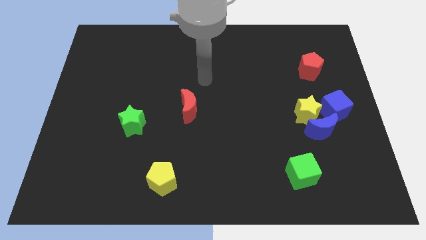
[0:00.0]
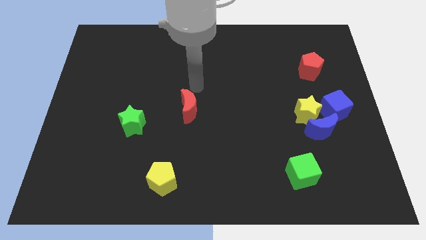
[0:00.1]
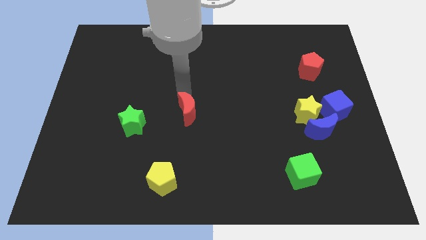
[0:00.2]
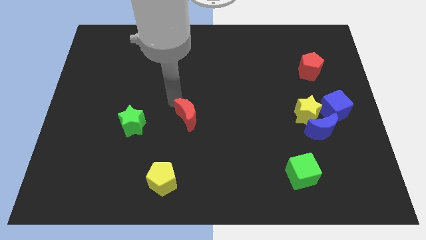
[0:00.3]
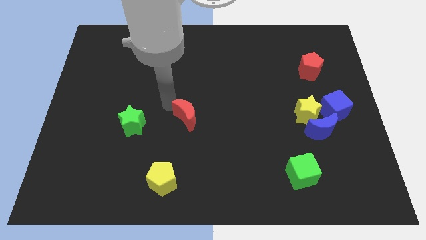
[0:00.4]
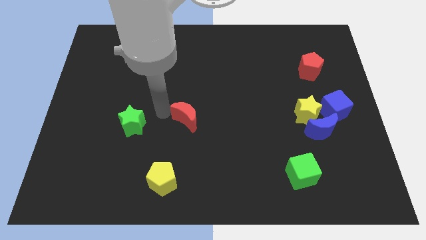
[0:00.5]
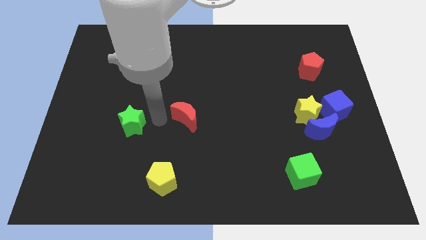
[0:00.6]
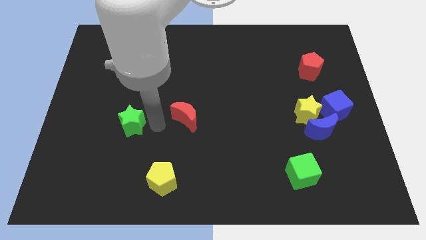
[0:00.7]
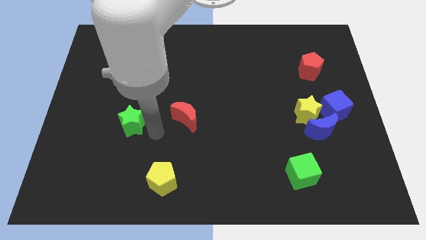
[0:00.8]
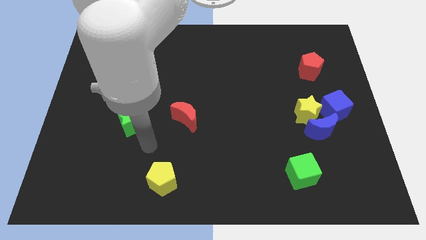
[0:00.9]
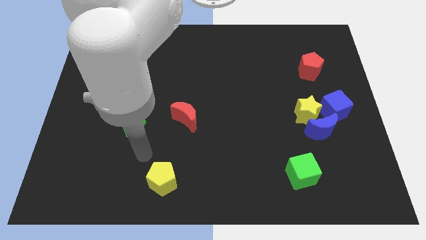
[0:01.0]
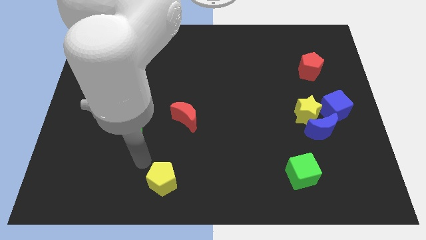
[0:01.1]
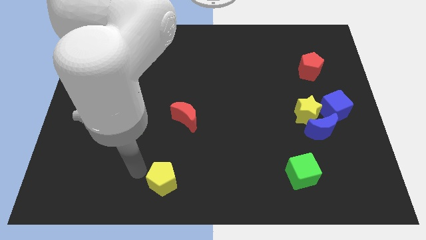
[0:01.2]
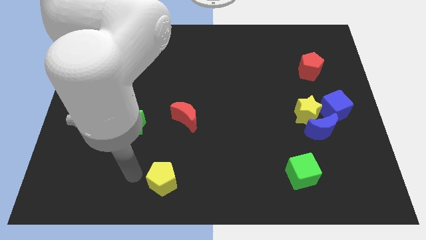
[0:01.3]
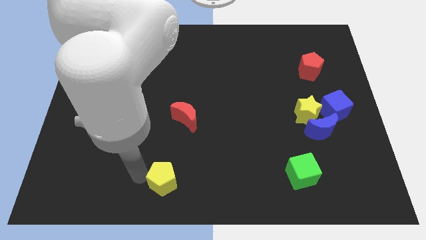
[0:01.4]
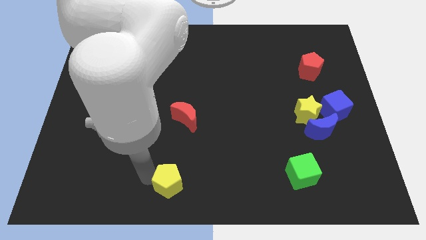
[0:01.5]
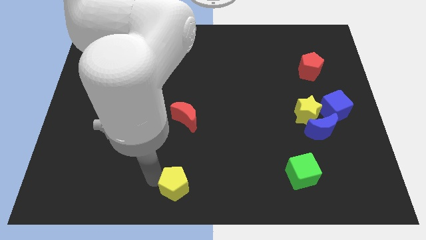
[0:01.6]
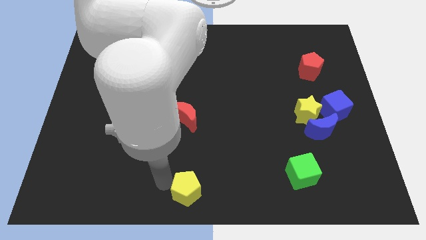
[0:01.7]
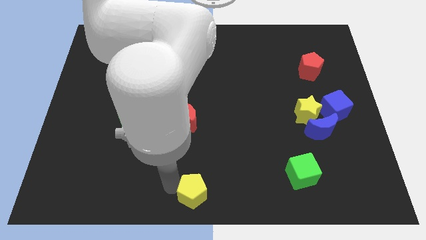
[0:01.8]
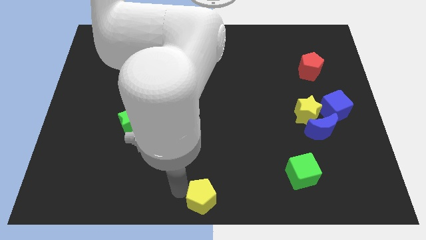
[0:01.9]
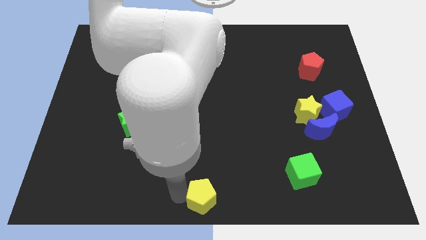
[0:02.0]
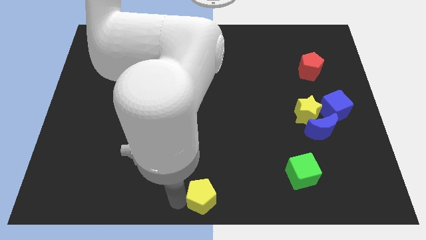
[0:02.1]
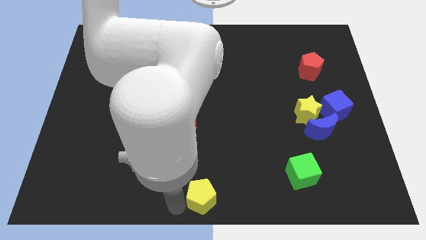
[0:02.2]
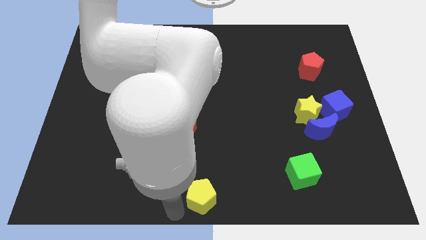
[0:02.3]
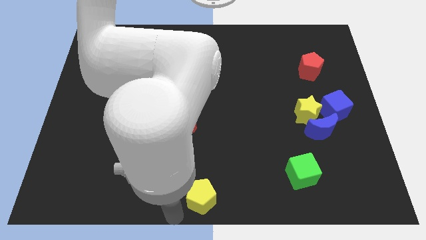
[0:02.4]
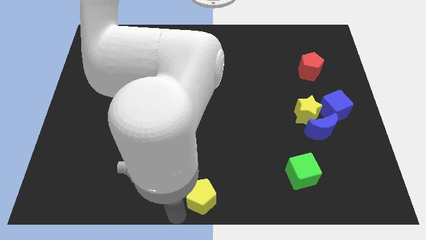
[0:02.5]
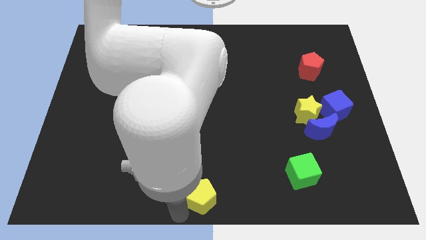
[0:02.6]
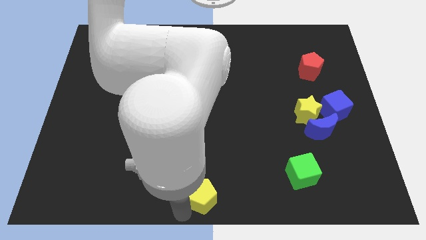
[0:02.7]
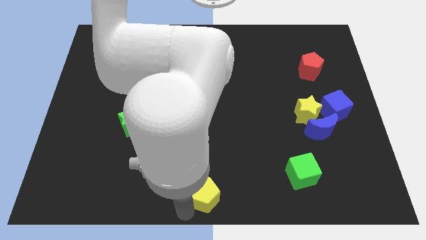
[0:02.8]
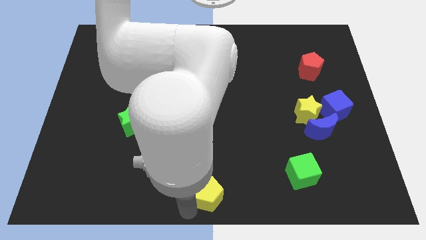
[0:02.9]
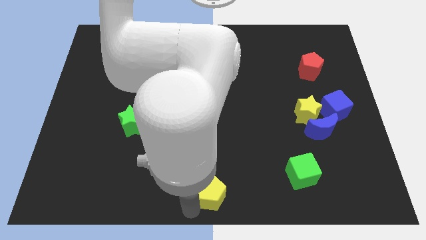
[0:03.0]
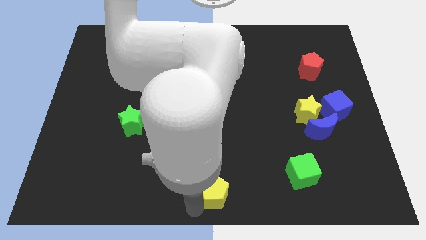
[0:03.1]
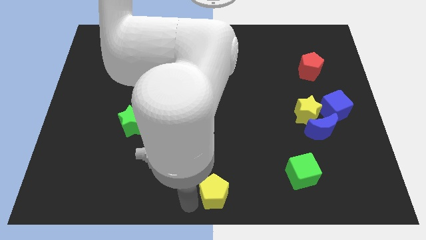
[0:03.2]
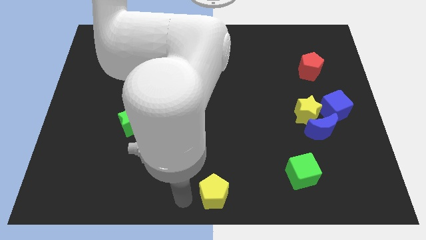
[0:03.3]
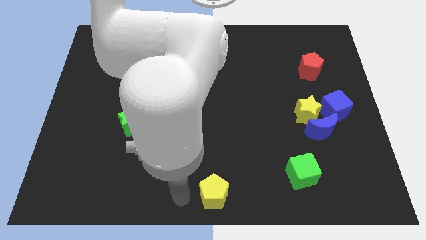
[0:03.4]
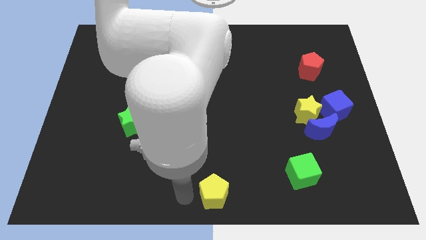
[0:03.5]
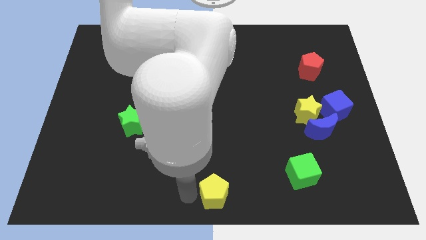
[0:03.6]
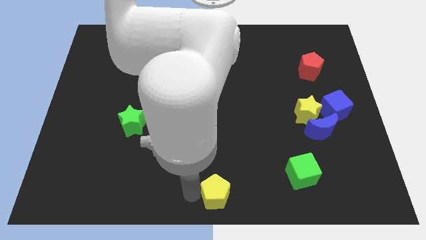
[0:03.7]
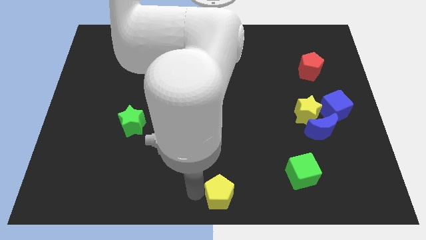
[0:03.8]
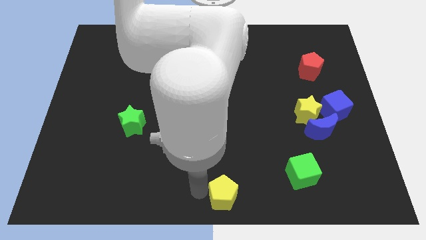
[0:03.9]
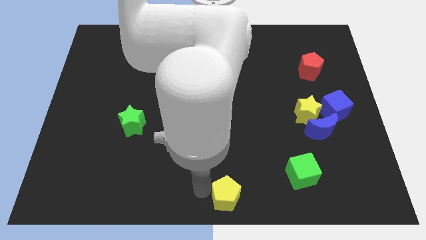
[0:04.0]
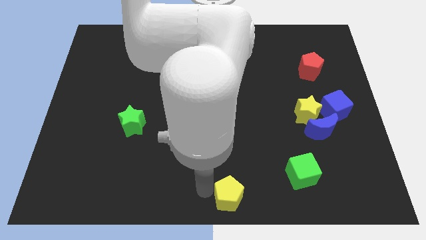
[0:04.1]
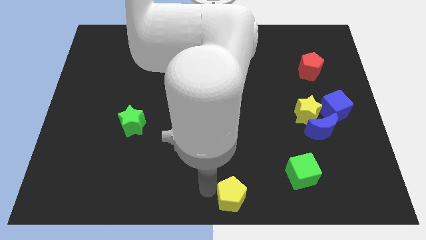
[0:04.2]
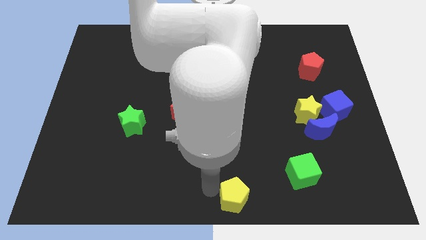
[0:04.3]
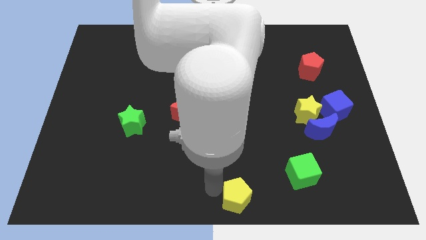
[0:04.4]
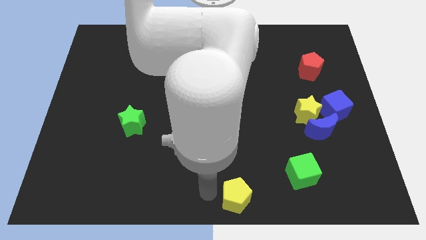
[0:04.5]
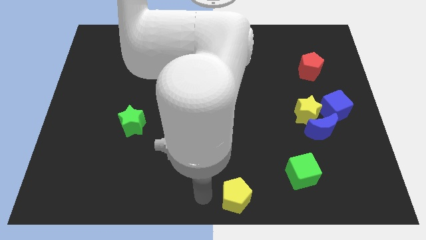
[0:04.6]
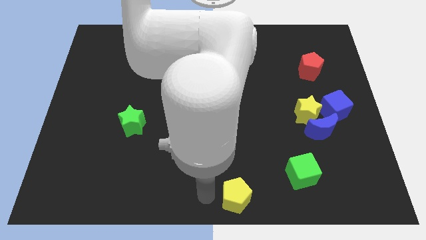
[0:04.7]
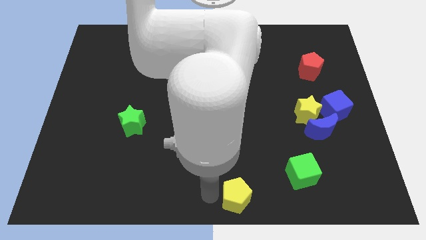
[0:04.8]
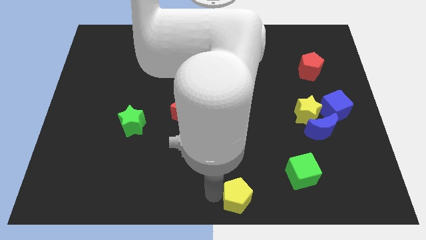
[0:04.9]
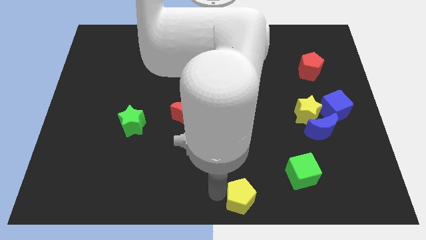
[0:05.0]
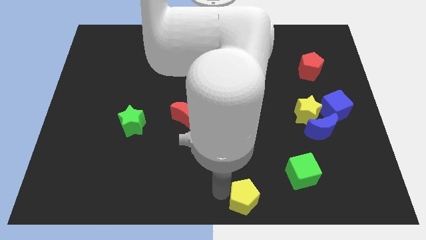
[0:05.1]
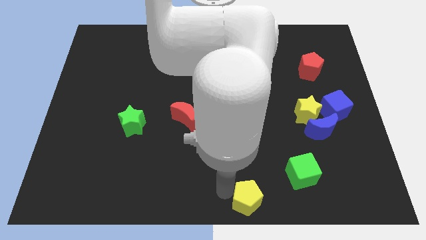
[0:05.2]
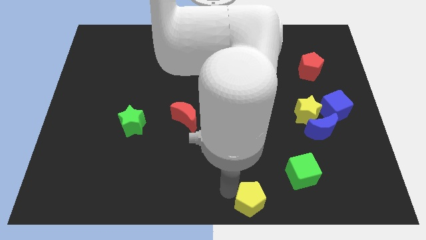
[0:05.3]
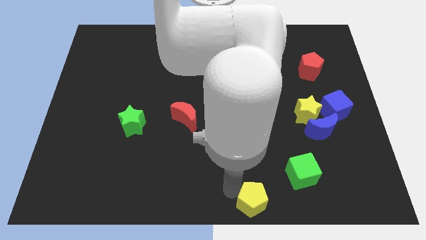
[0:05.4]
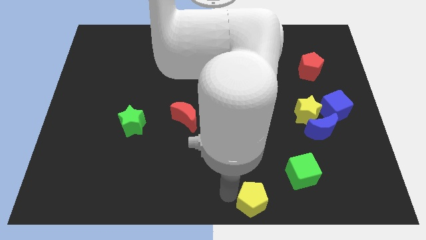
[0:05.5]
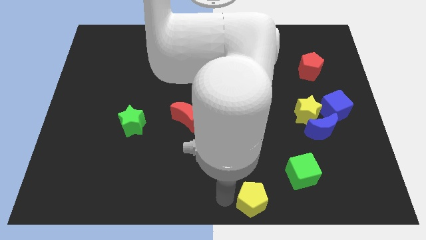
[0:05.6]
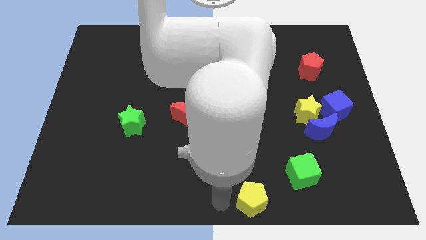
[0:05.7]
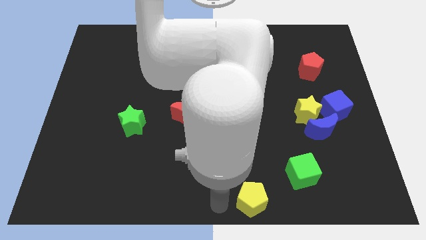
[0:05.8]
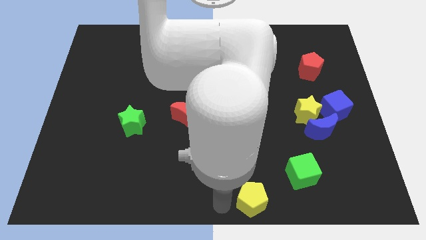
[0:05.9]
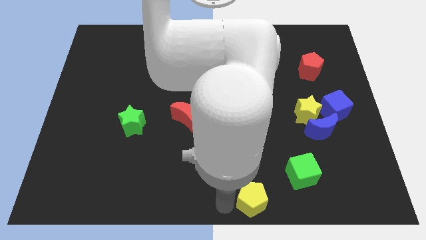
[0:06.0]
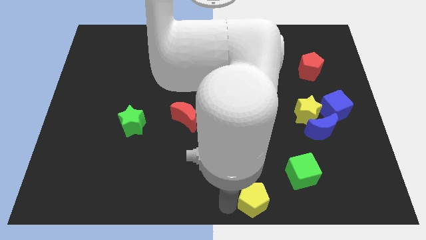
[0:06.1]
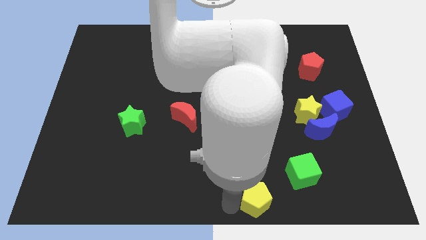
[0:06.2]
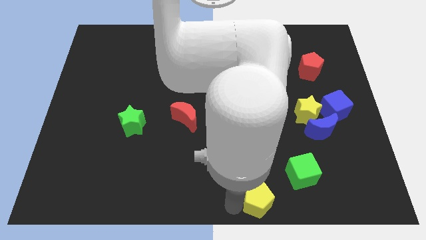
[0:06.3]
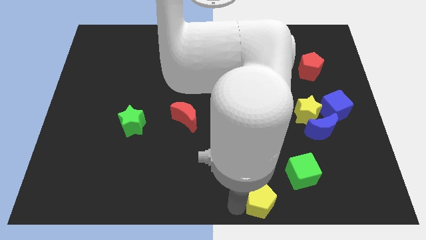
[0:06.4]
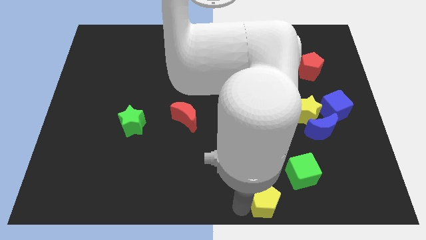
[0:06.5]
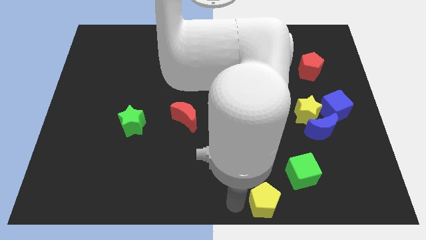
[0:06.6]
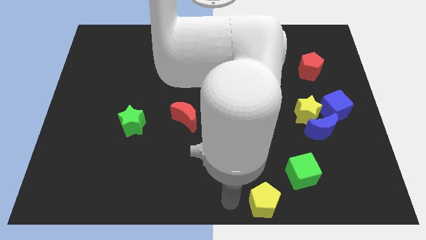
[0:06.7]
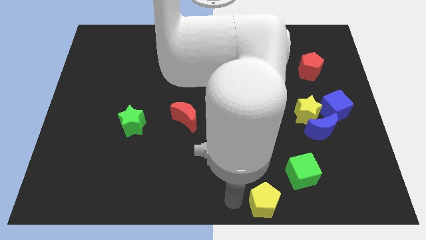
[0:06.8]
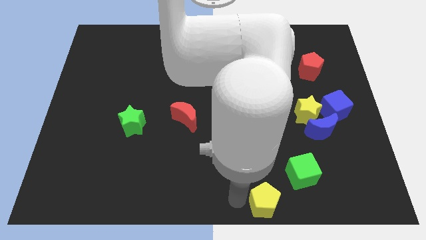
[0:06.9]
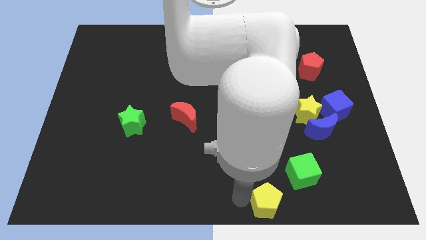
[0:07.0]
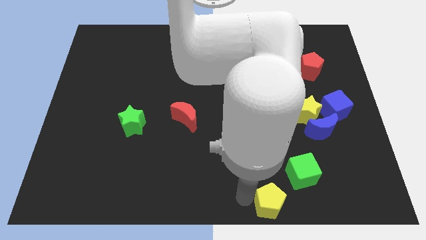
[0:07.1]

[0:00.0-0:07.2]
move the yellow pentagon right

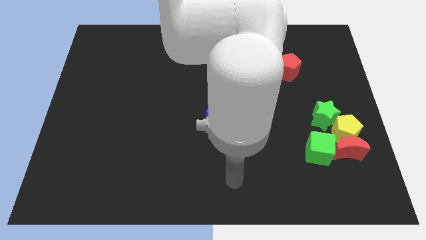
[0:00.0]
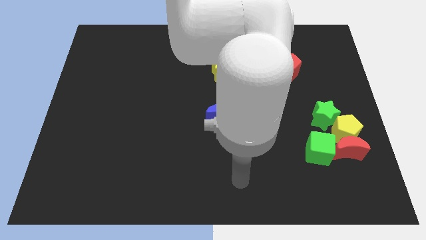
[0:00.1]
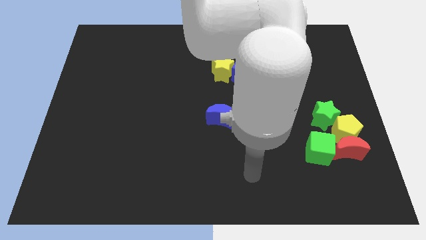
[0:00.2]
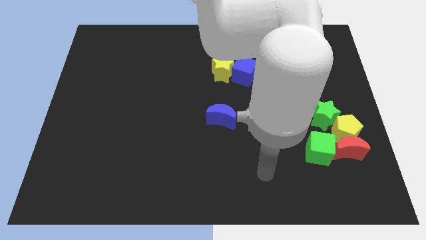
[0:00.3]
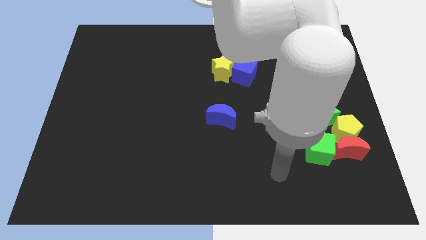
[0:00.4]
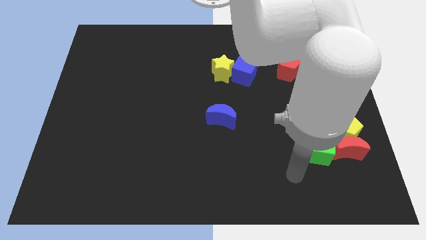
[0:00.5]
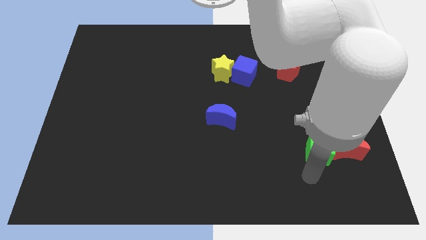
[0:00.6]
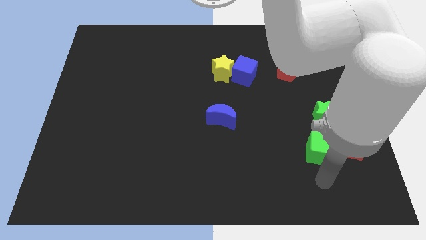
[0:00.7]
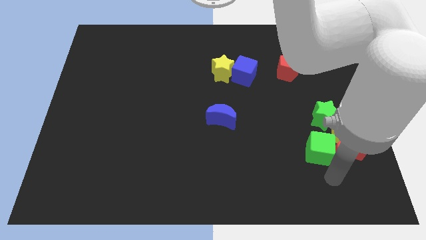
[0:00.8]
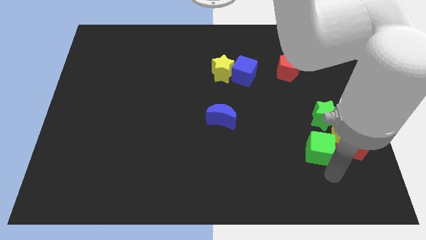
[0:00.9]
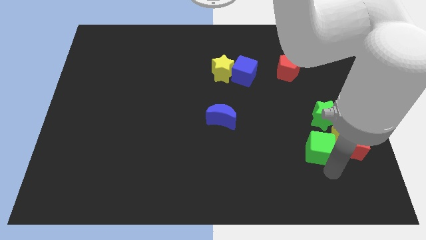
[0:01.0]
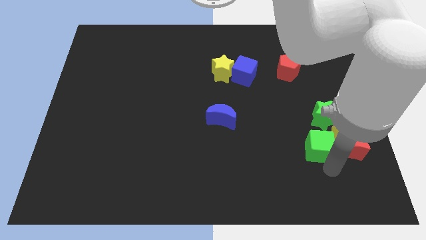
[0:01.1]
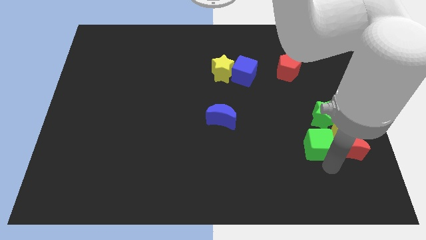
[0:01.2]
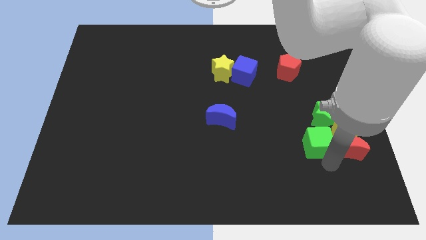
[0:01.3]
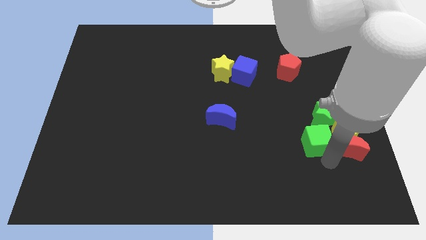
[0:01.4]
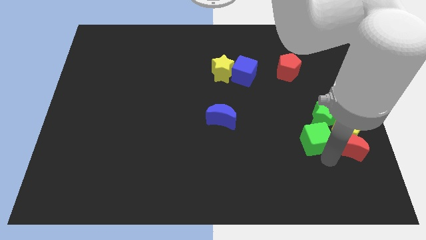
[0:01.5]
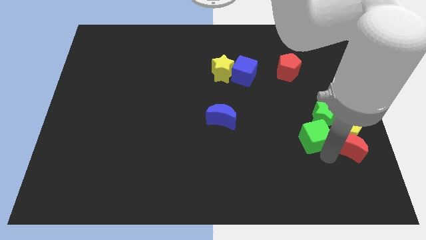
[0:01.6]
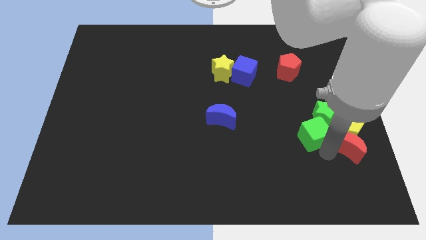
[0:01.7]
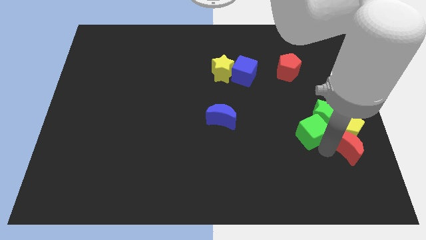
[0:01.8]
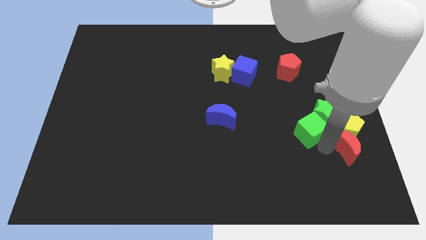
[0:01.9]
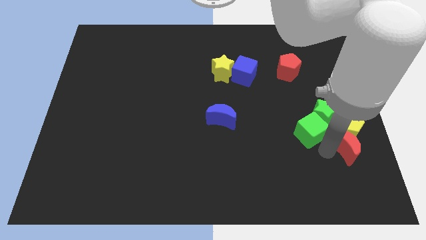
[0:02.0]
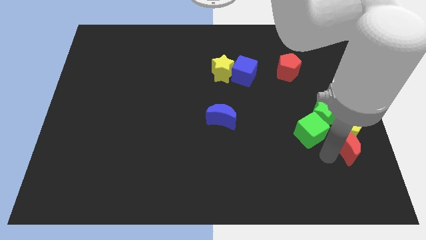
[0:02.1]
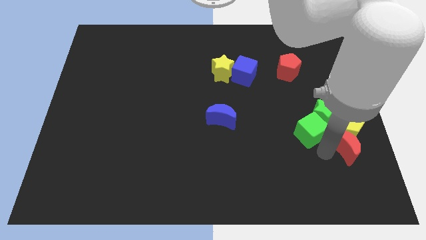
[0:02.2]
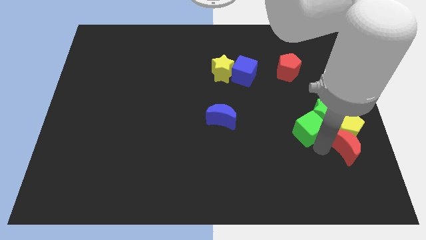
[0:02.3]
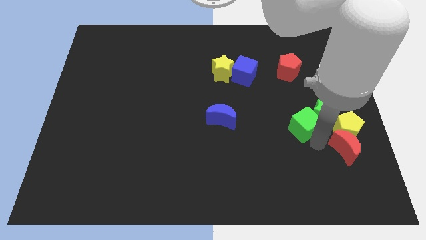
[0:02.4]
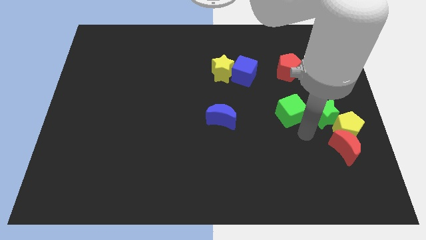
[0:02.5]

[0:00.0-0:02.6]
push the green cube a bit upwards
